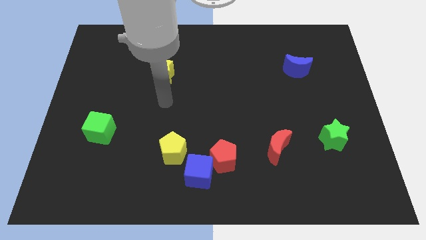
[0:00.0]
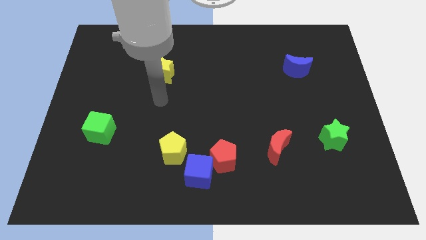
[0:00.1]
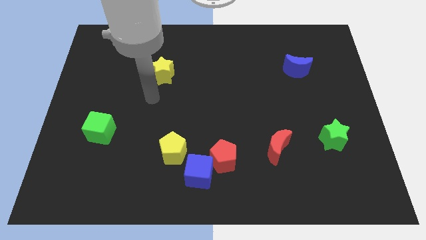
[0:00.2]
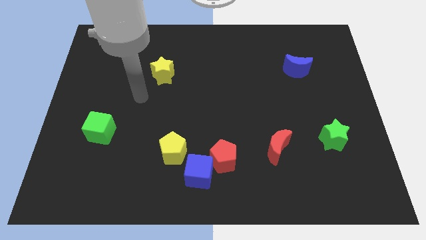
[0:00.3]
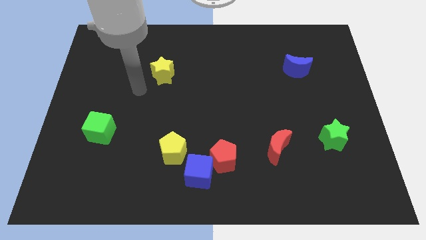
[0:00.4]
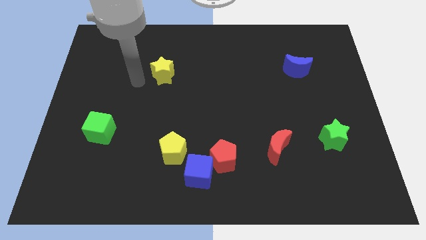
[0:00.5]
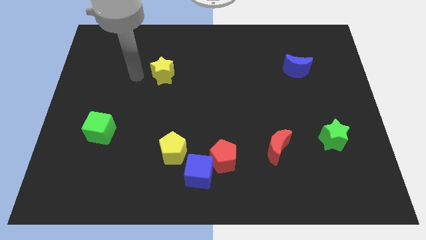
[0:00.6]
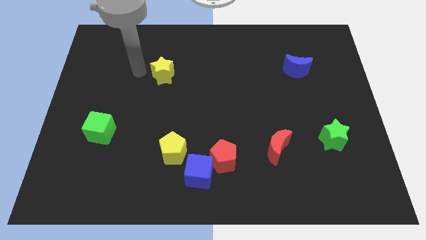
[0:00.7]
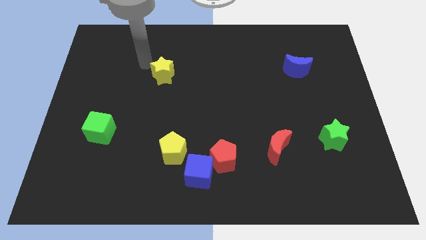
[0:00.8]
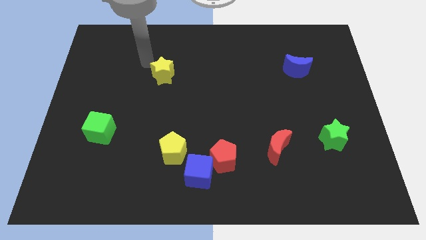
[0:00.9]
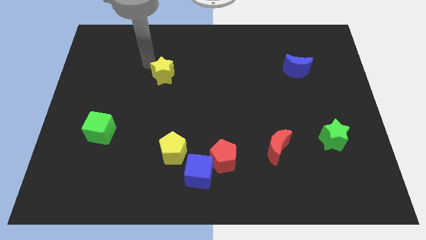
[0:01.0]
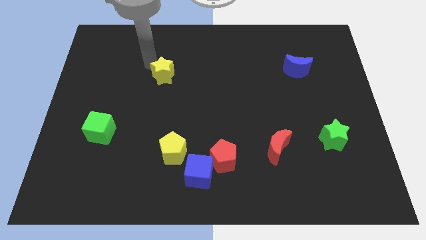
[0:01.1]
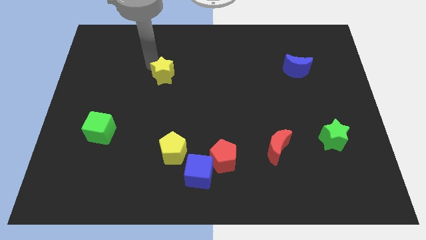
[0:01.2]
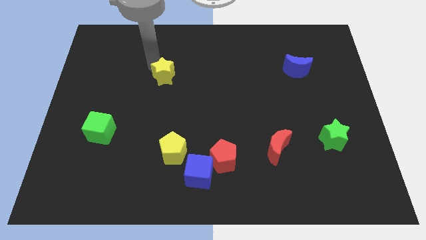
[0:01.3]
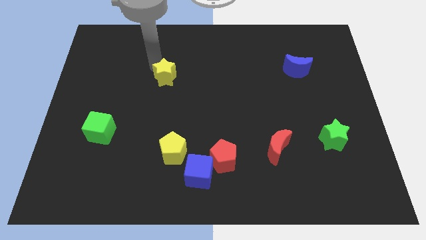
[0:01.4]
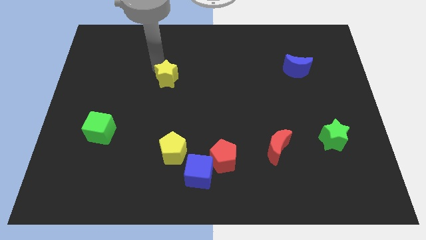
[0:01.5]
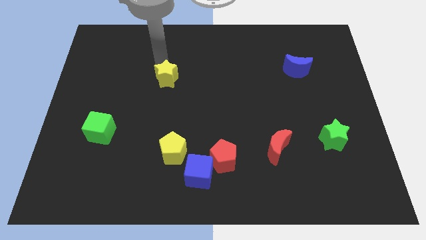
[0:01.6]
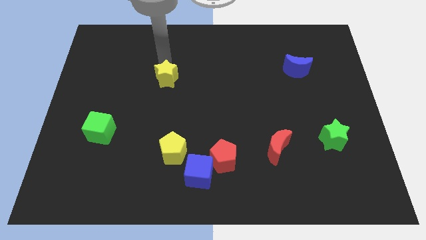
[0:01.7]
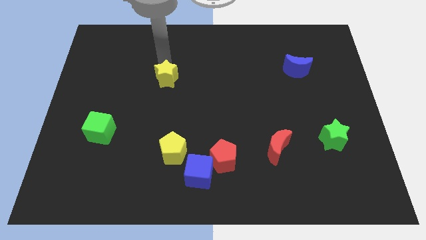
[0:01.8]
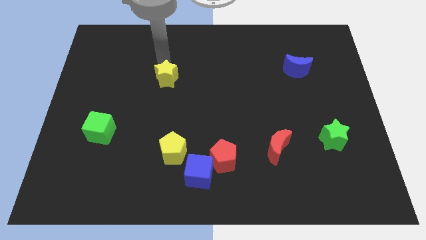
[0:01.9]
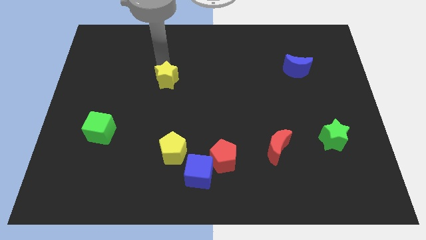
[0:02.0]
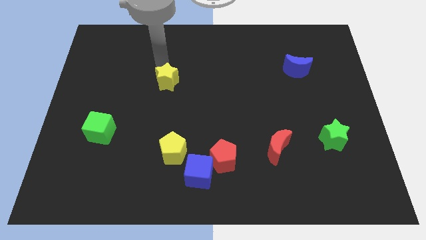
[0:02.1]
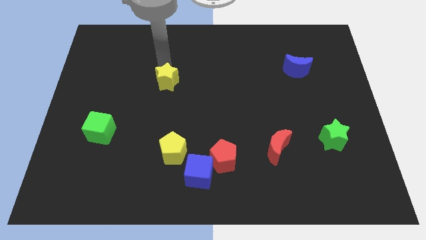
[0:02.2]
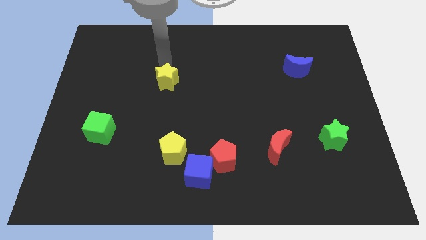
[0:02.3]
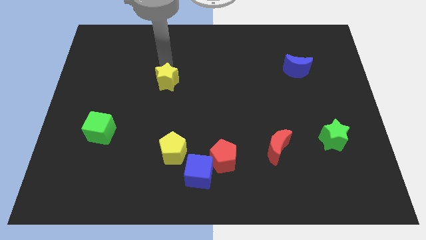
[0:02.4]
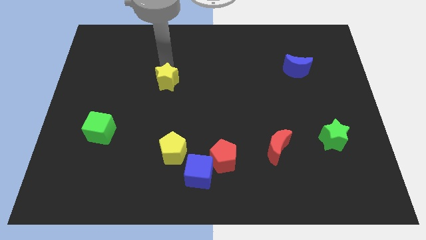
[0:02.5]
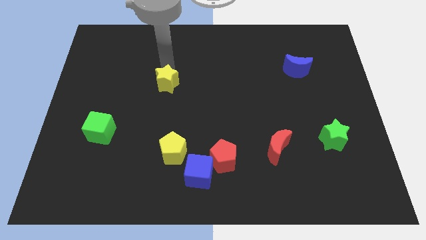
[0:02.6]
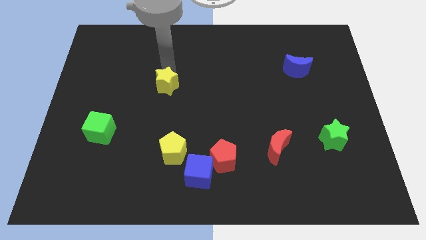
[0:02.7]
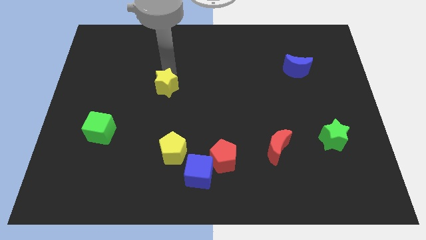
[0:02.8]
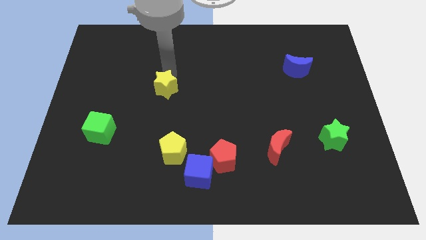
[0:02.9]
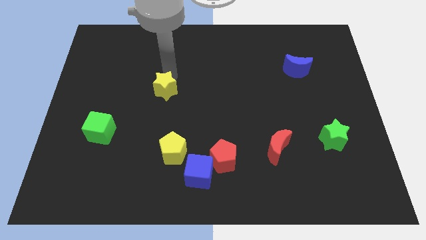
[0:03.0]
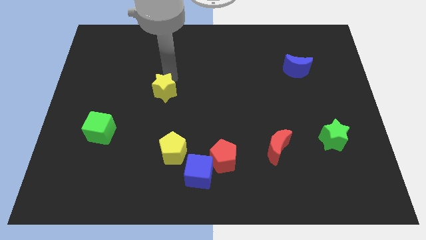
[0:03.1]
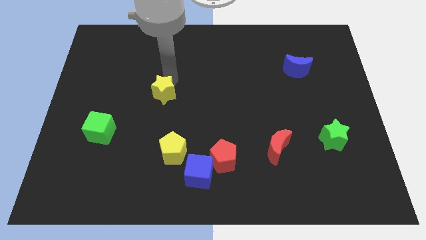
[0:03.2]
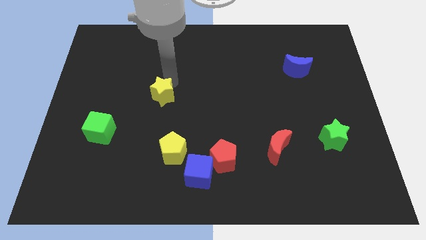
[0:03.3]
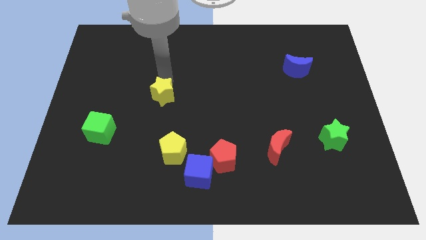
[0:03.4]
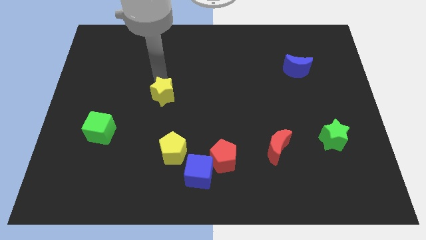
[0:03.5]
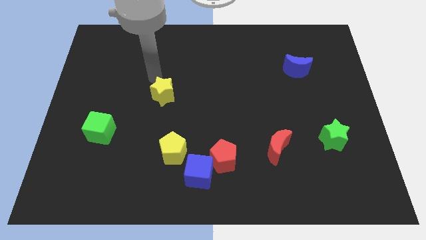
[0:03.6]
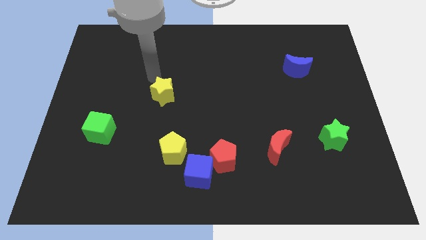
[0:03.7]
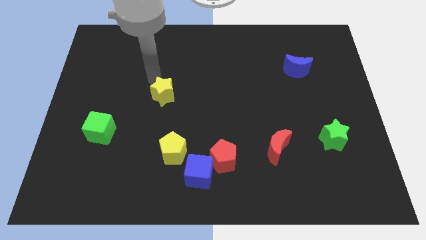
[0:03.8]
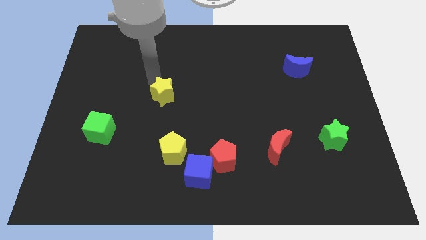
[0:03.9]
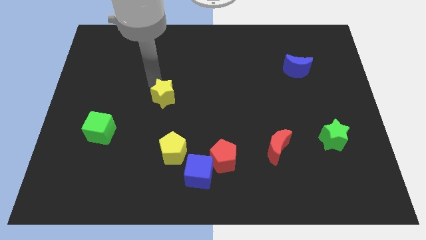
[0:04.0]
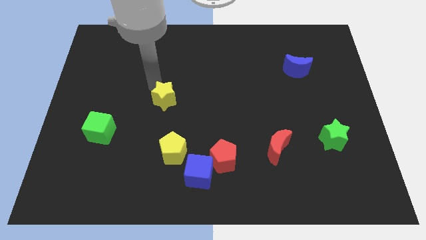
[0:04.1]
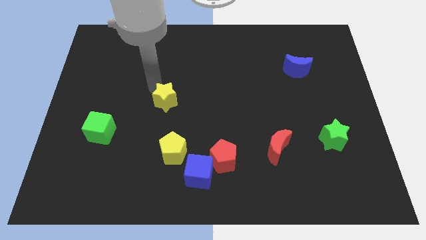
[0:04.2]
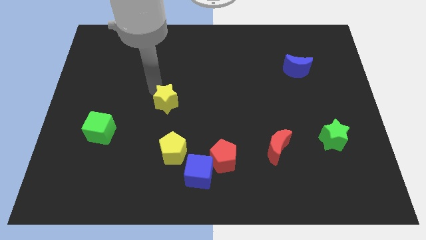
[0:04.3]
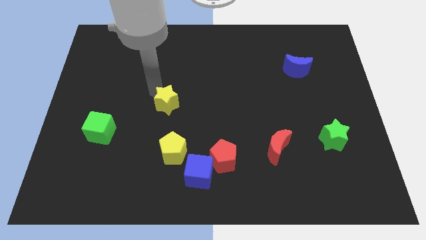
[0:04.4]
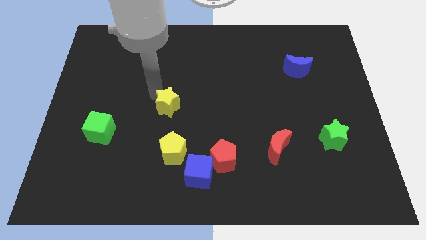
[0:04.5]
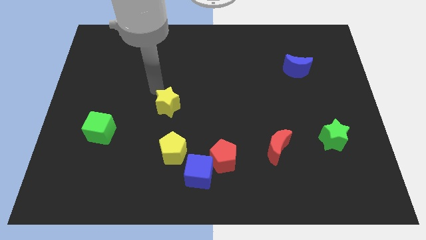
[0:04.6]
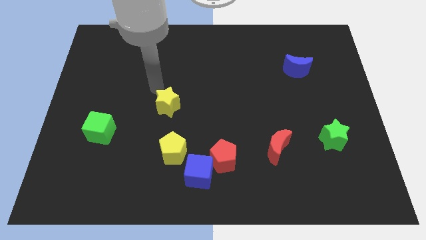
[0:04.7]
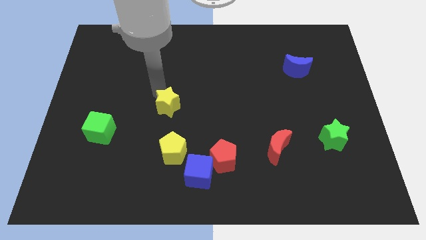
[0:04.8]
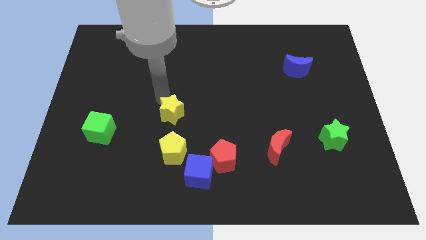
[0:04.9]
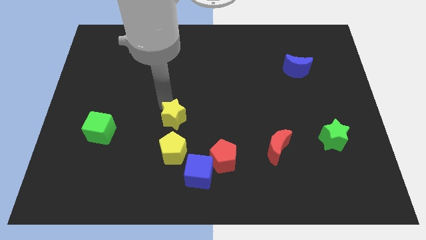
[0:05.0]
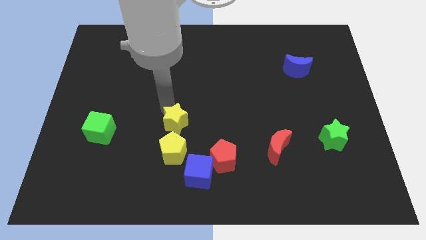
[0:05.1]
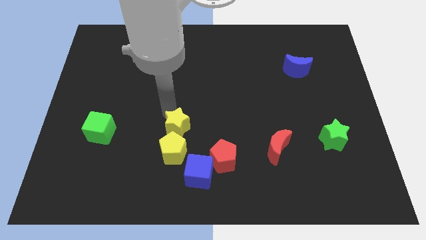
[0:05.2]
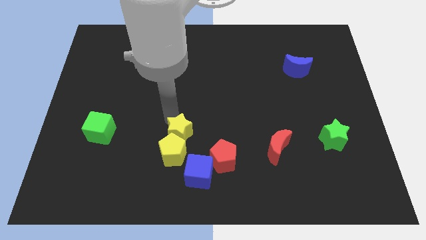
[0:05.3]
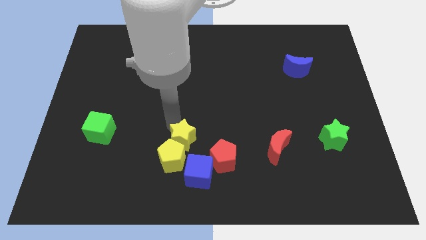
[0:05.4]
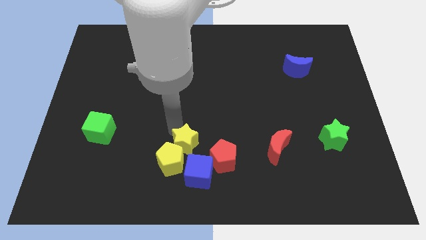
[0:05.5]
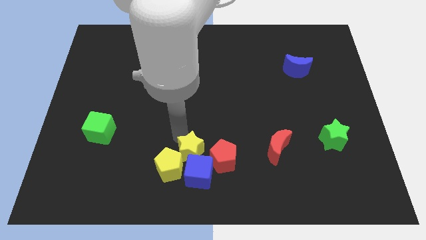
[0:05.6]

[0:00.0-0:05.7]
push the yellow star close to the blue cube

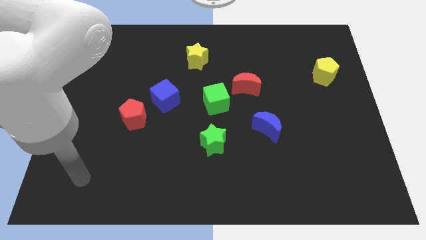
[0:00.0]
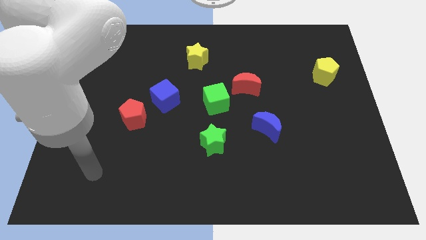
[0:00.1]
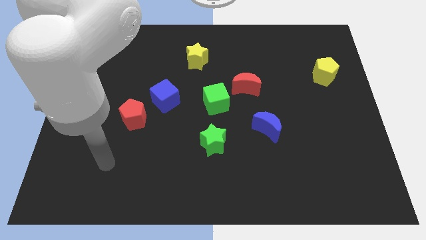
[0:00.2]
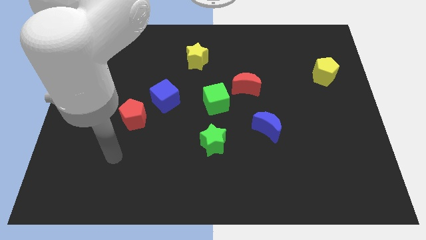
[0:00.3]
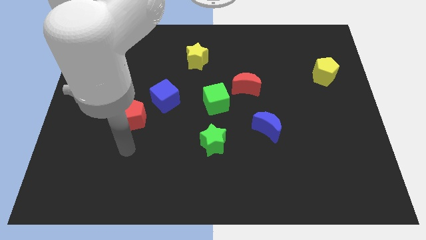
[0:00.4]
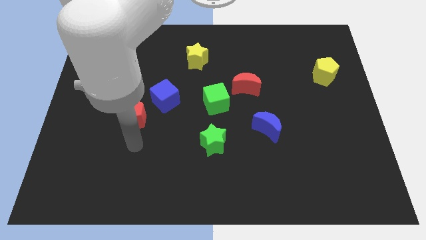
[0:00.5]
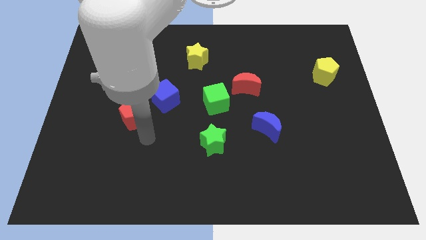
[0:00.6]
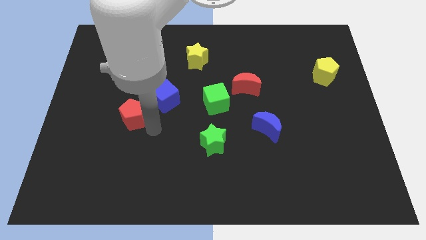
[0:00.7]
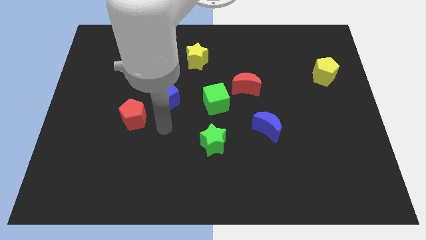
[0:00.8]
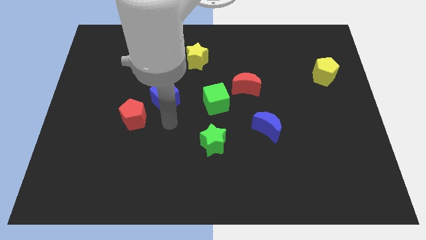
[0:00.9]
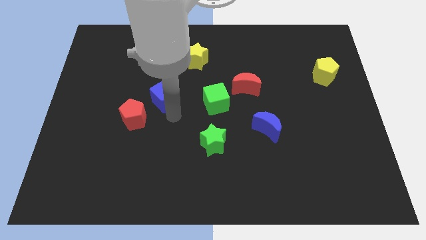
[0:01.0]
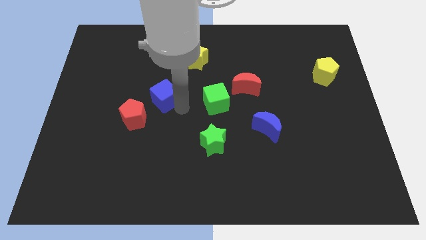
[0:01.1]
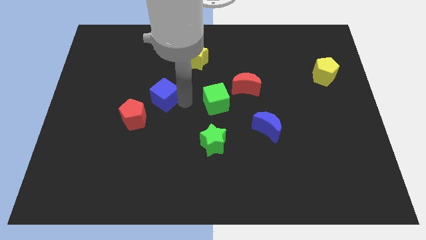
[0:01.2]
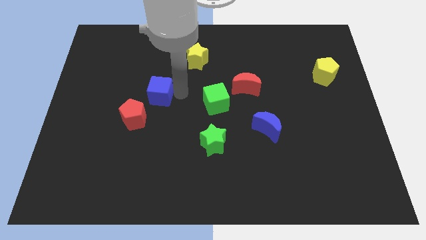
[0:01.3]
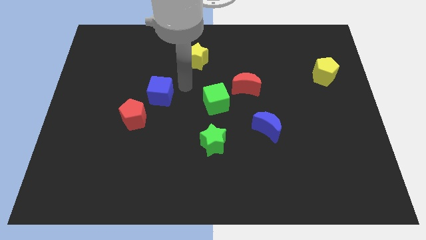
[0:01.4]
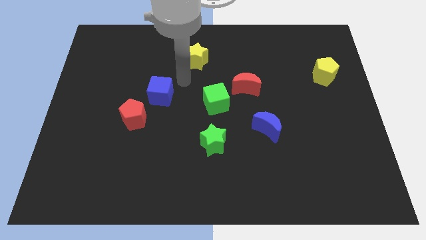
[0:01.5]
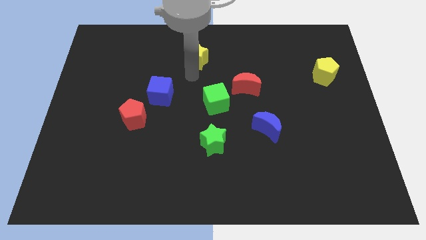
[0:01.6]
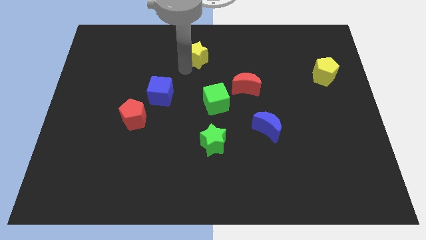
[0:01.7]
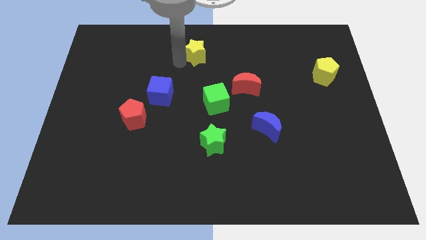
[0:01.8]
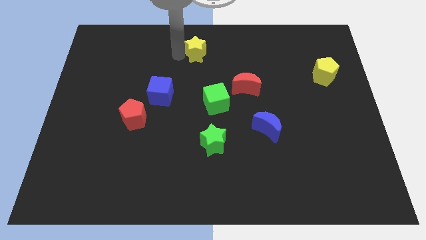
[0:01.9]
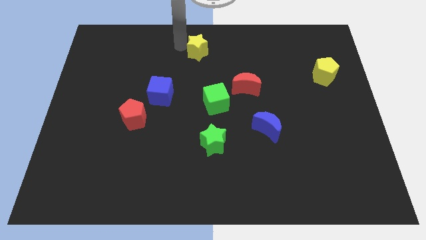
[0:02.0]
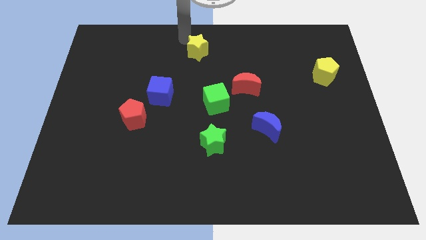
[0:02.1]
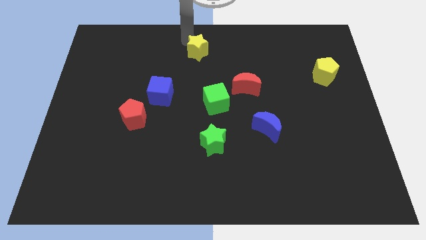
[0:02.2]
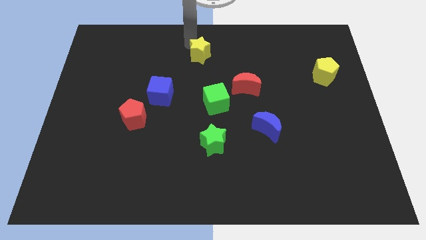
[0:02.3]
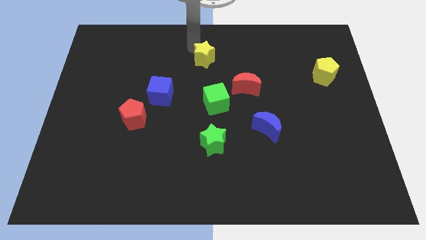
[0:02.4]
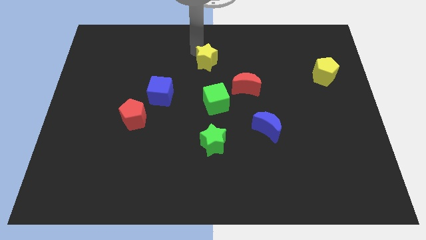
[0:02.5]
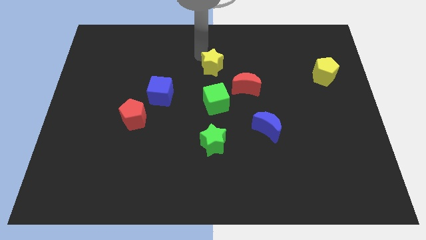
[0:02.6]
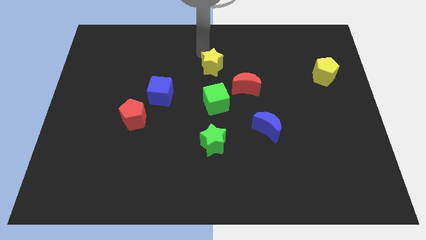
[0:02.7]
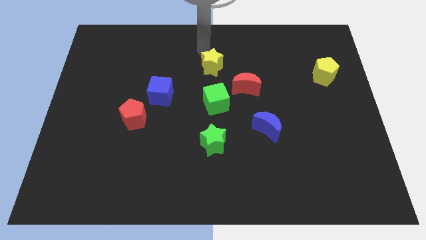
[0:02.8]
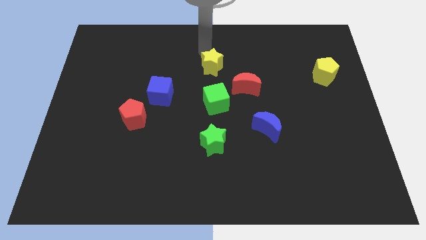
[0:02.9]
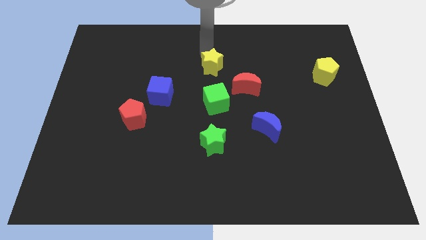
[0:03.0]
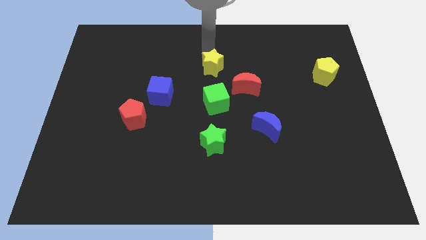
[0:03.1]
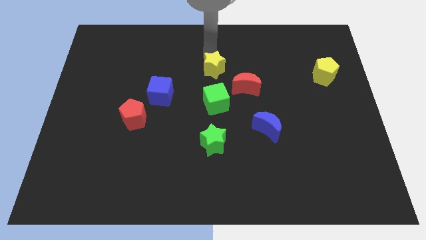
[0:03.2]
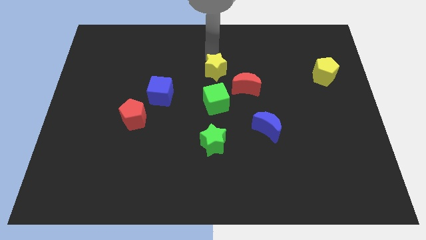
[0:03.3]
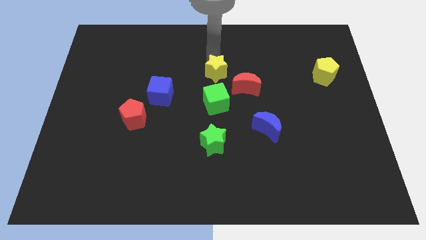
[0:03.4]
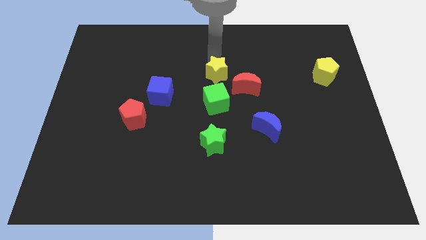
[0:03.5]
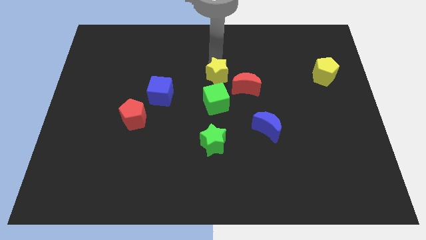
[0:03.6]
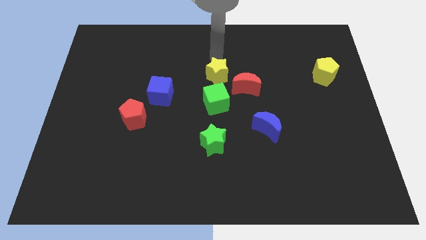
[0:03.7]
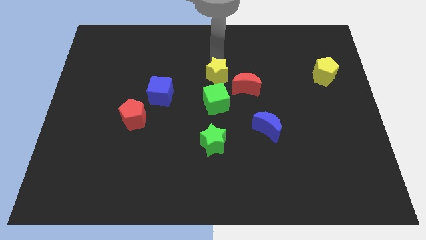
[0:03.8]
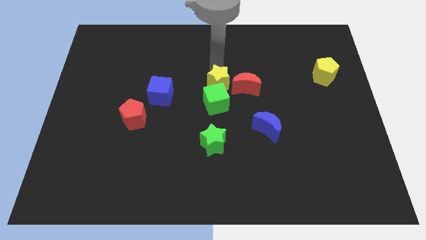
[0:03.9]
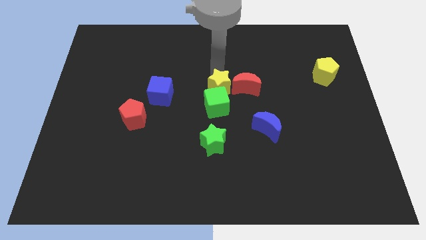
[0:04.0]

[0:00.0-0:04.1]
move the yellow star next to the green cube
